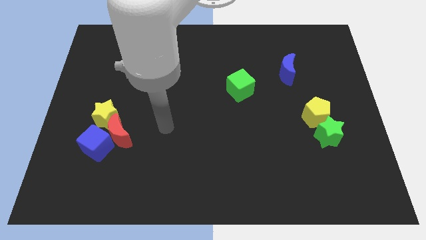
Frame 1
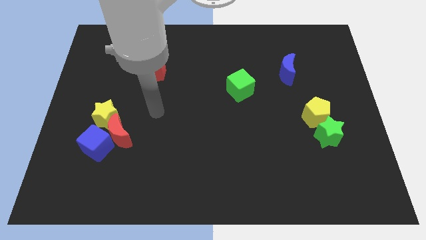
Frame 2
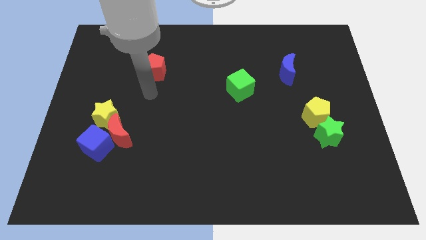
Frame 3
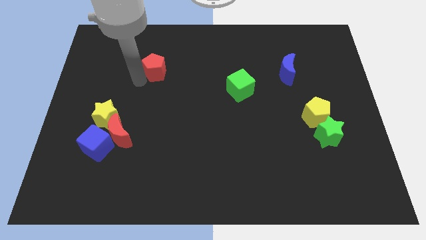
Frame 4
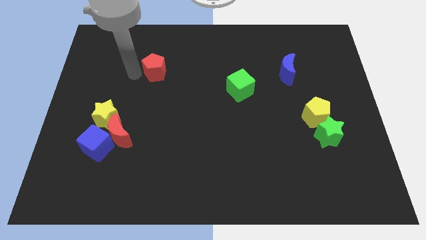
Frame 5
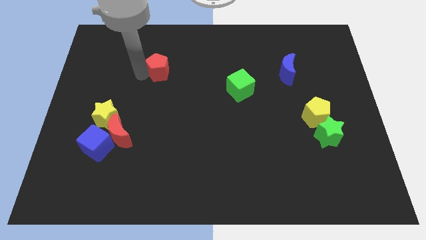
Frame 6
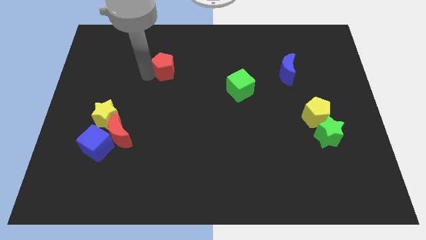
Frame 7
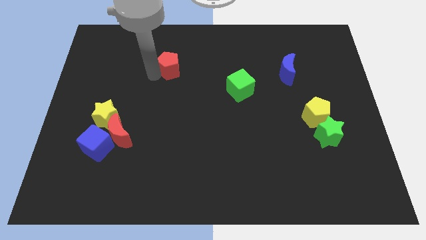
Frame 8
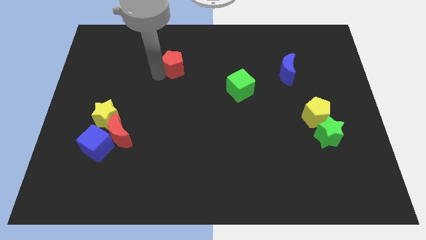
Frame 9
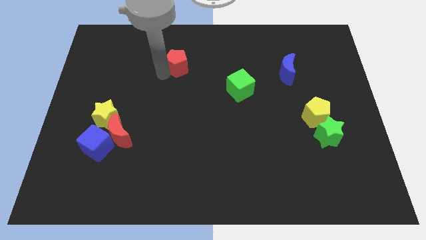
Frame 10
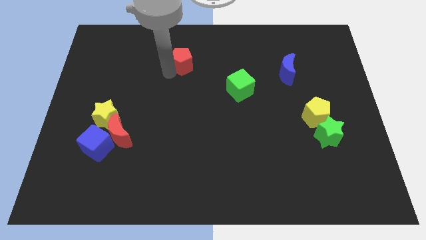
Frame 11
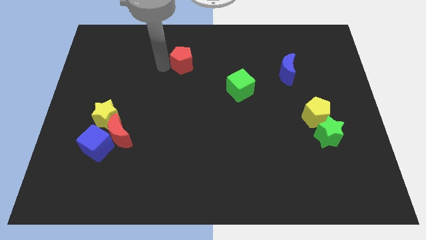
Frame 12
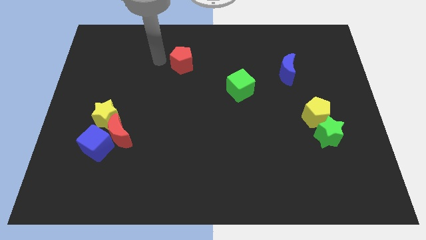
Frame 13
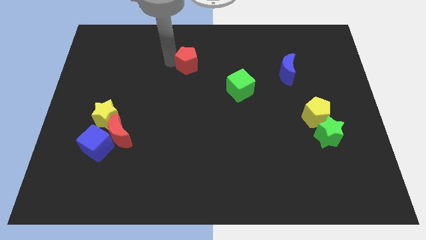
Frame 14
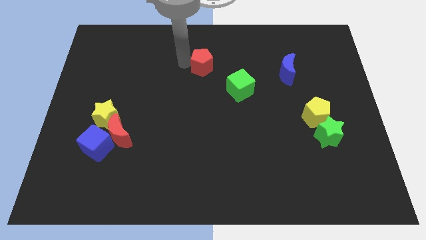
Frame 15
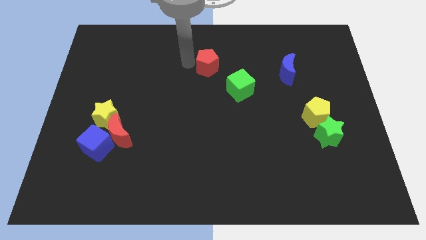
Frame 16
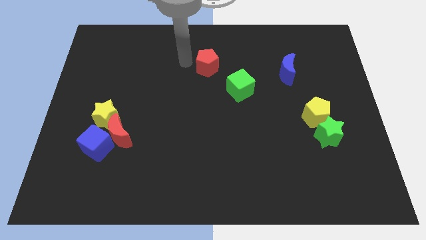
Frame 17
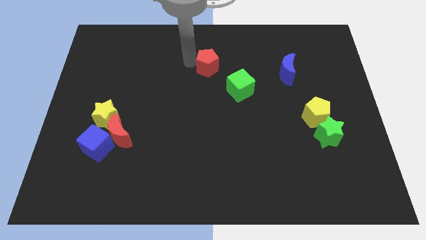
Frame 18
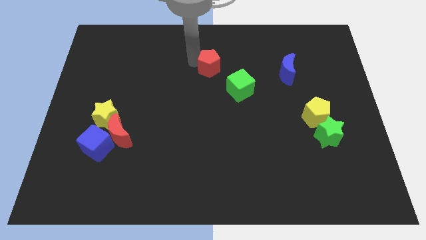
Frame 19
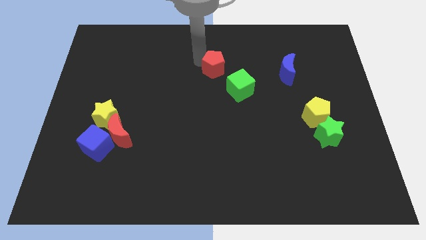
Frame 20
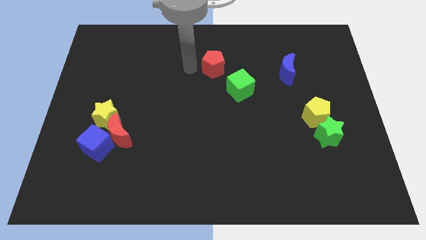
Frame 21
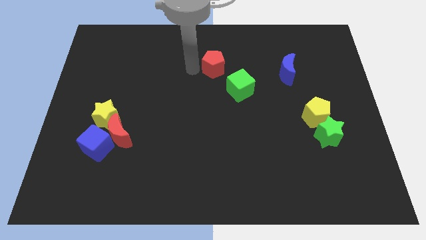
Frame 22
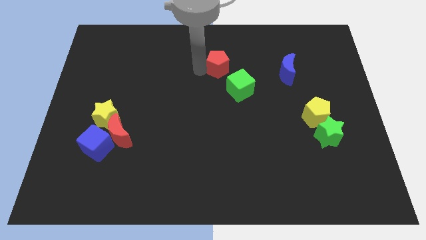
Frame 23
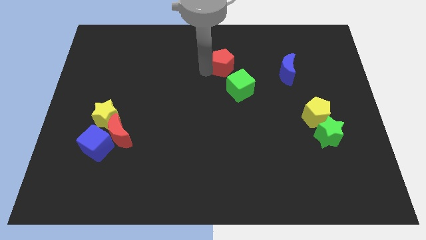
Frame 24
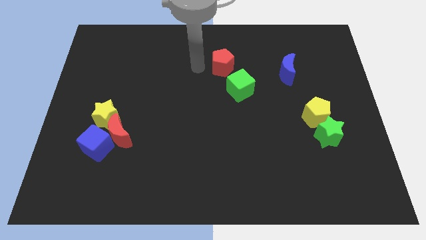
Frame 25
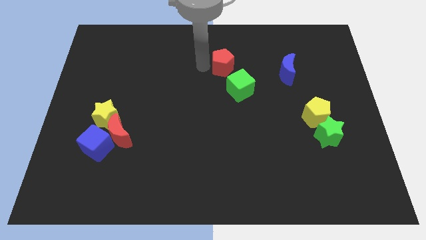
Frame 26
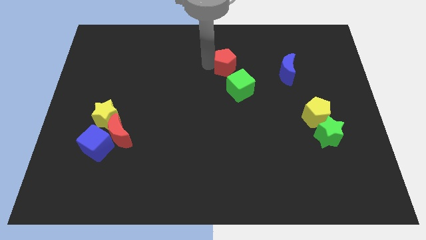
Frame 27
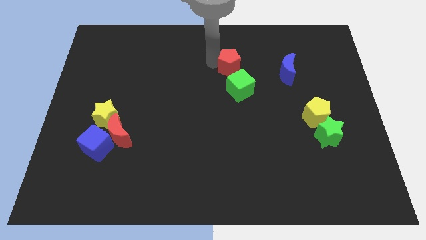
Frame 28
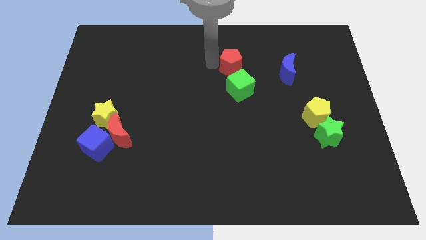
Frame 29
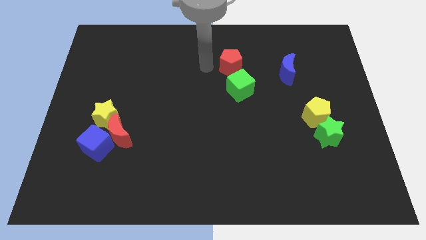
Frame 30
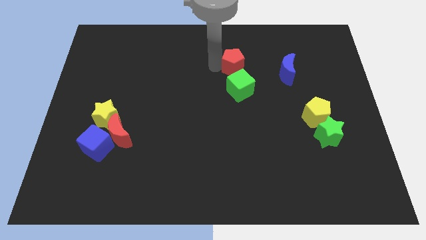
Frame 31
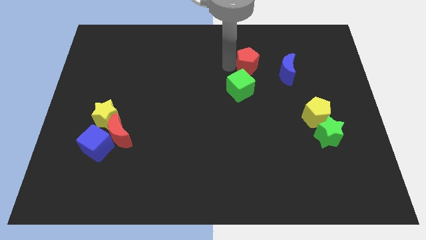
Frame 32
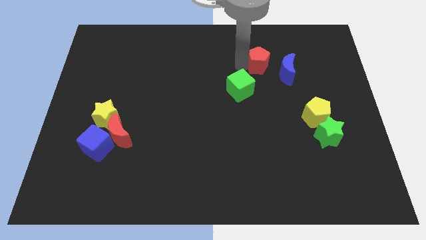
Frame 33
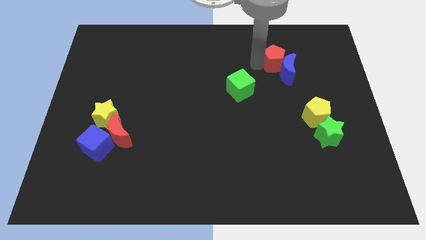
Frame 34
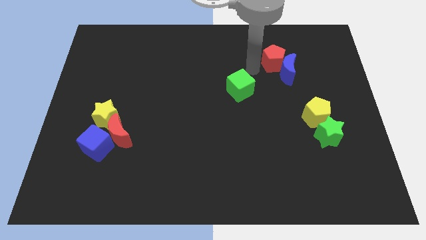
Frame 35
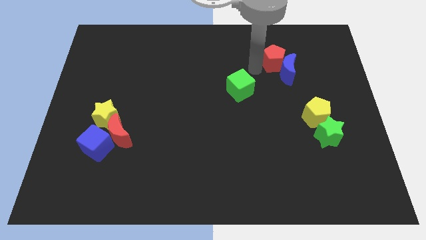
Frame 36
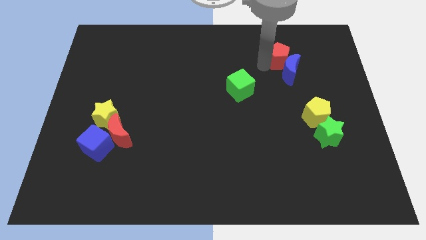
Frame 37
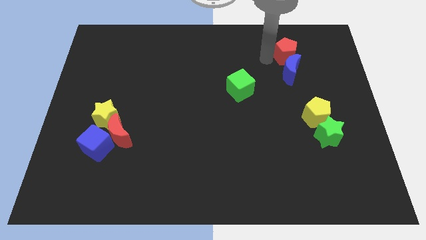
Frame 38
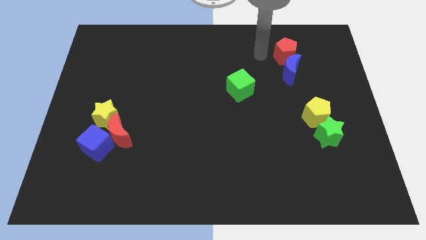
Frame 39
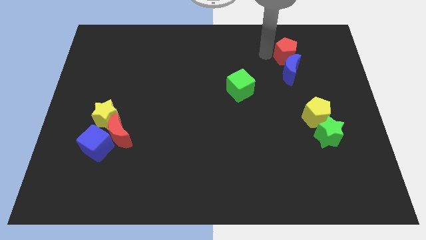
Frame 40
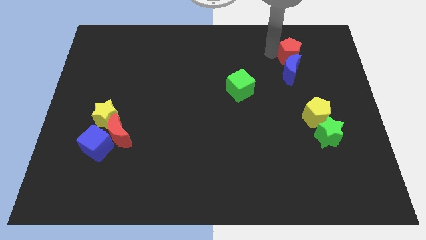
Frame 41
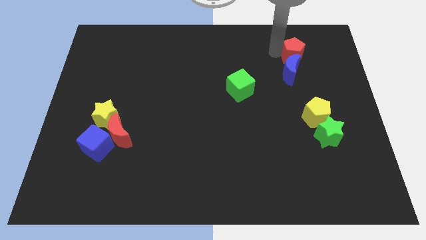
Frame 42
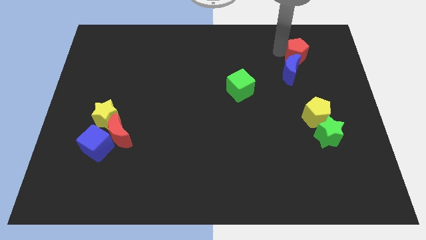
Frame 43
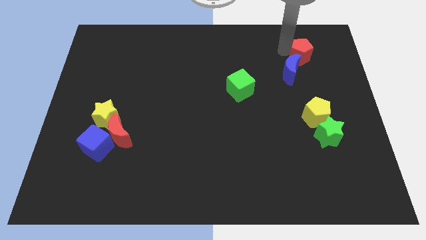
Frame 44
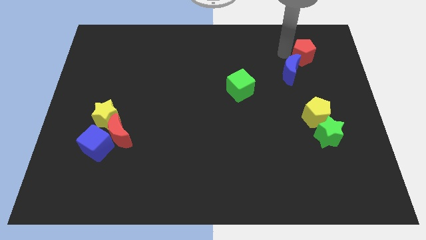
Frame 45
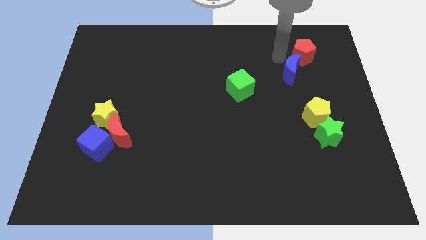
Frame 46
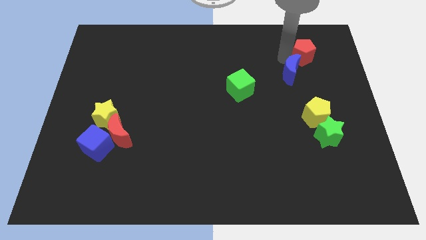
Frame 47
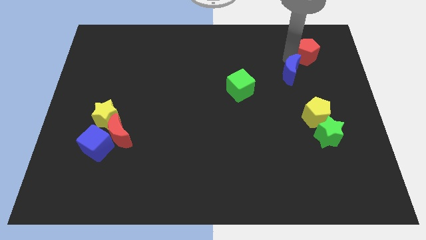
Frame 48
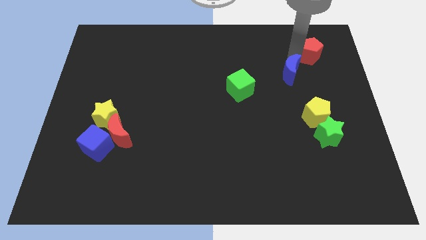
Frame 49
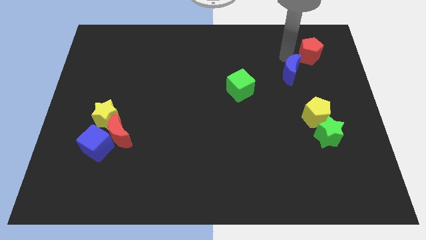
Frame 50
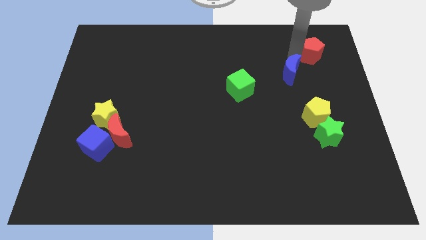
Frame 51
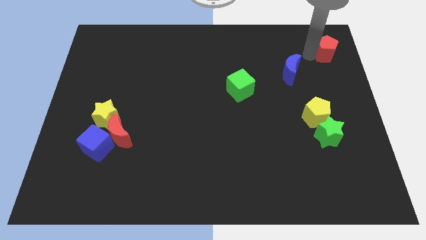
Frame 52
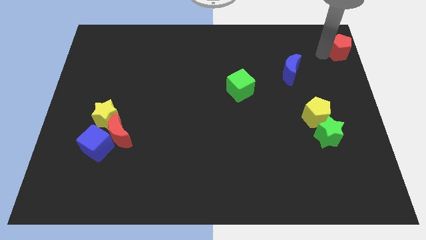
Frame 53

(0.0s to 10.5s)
push the red pentagon to the top right of the board

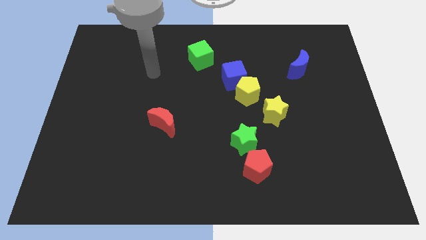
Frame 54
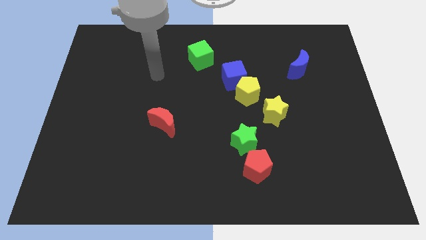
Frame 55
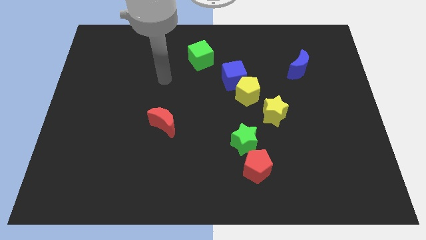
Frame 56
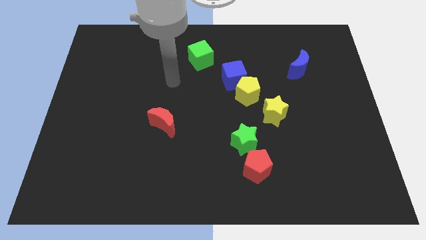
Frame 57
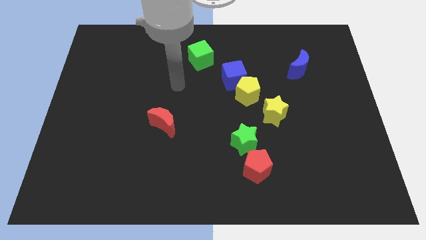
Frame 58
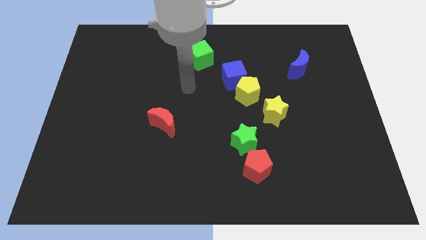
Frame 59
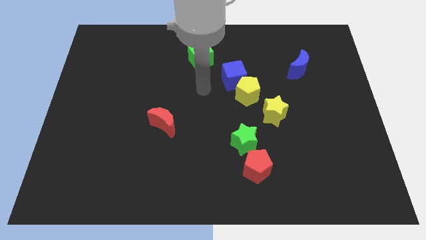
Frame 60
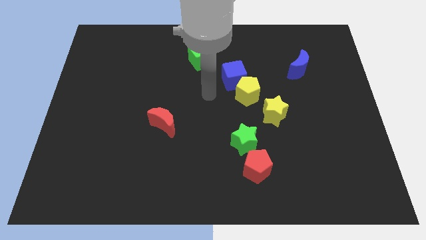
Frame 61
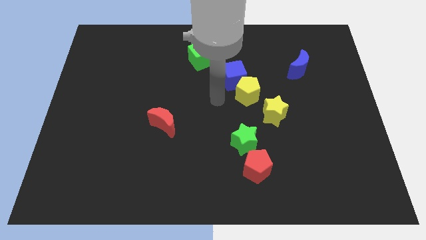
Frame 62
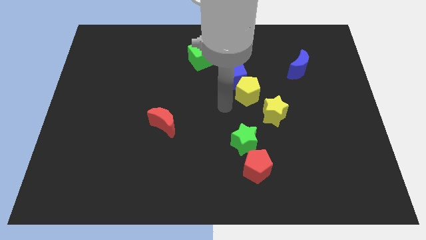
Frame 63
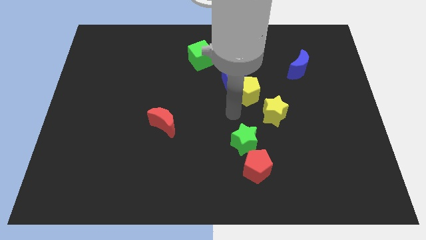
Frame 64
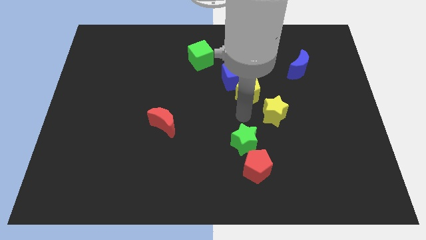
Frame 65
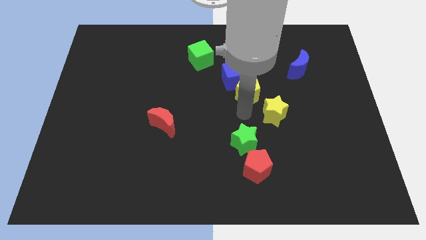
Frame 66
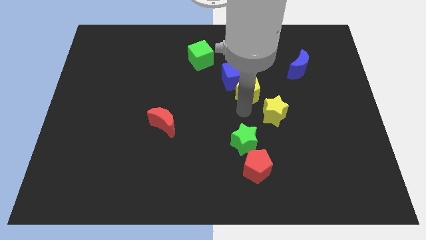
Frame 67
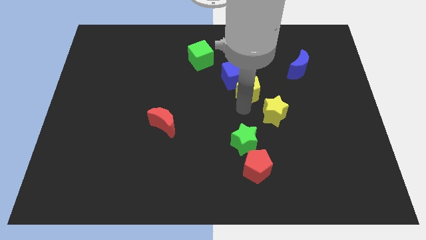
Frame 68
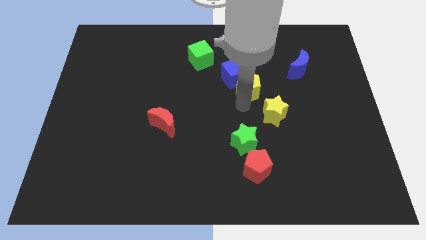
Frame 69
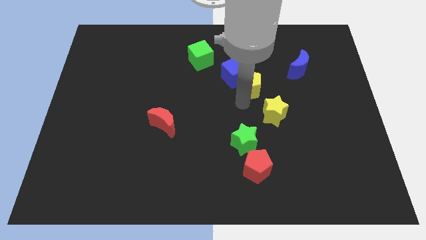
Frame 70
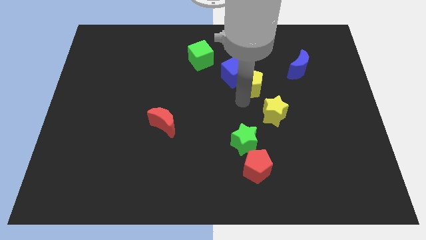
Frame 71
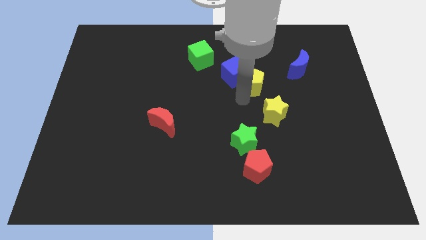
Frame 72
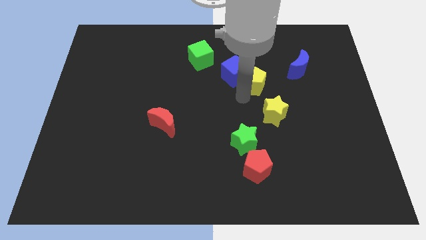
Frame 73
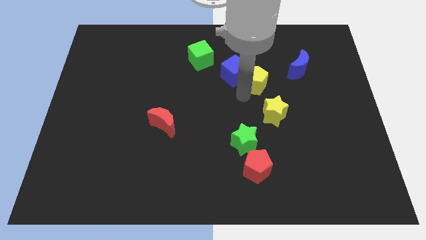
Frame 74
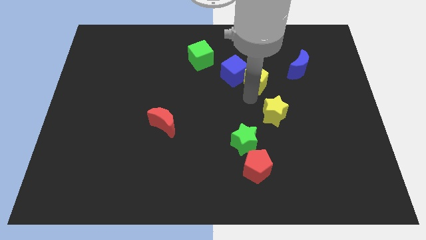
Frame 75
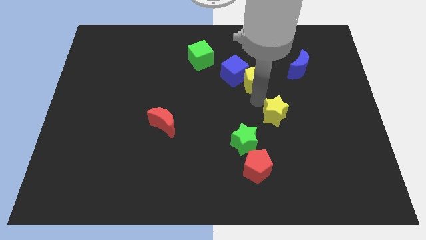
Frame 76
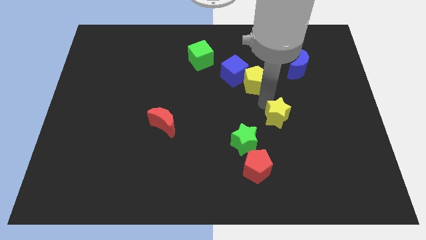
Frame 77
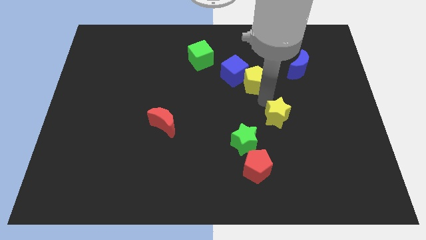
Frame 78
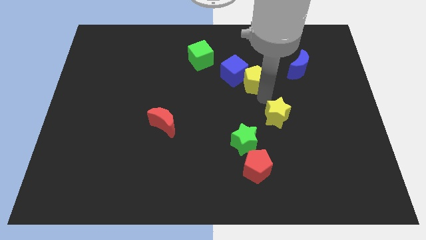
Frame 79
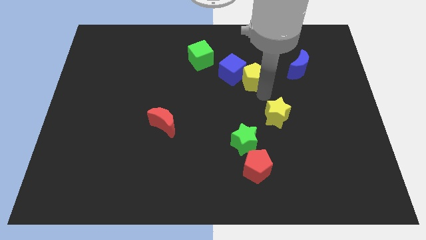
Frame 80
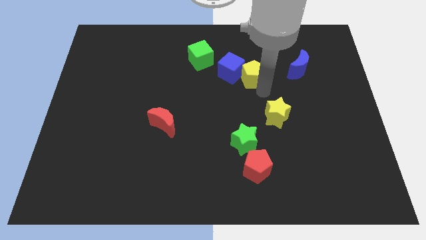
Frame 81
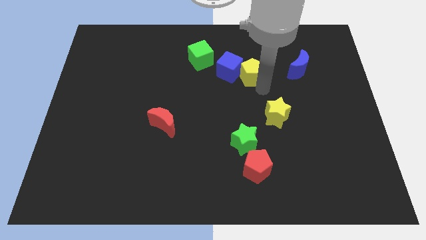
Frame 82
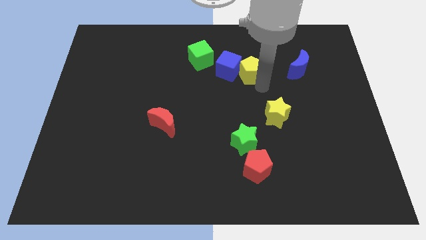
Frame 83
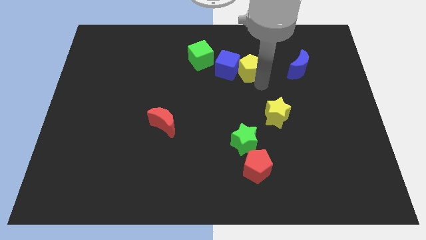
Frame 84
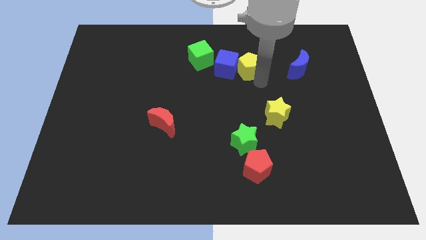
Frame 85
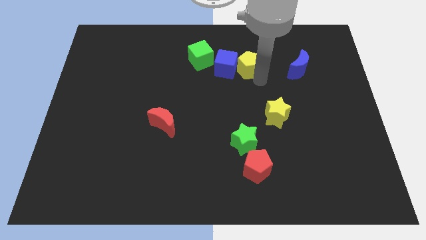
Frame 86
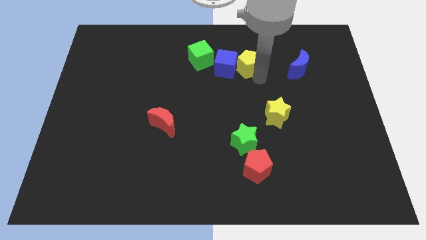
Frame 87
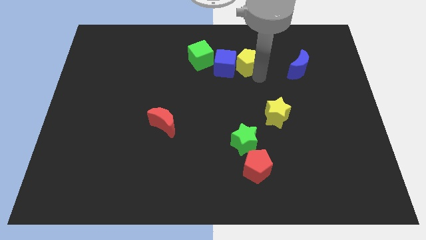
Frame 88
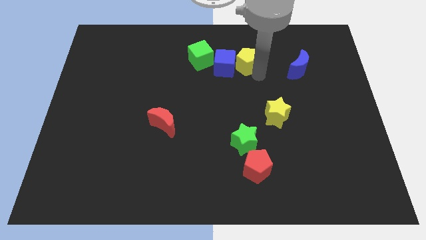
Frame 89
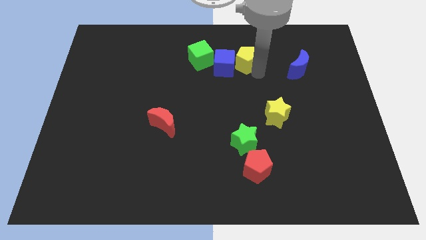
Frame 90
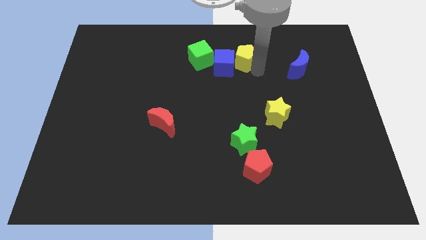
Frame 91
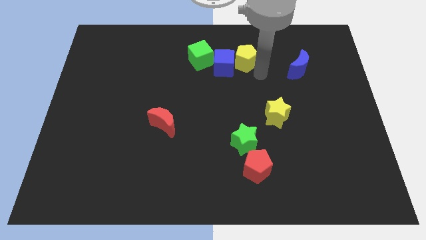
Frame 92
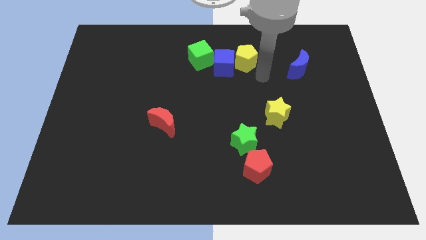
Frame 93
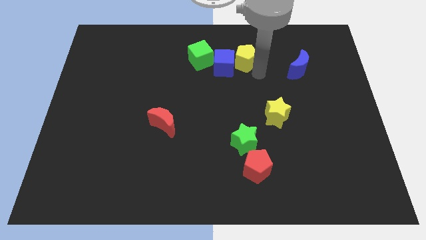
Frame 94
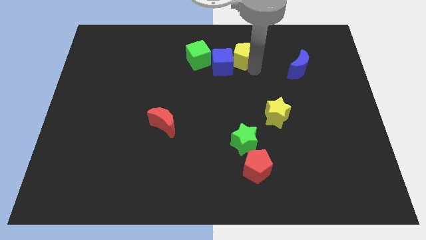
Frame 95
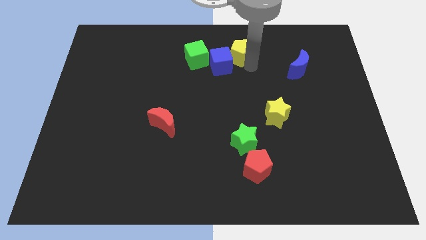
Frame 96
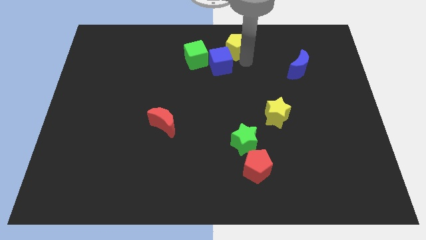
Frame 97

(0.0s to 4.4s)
push the yellow pentagon to the top side
